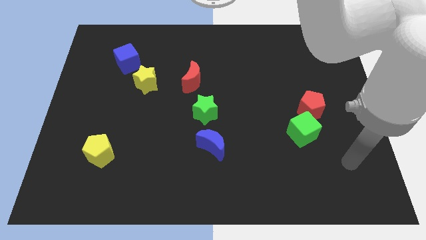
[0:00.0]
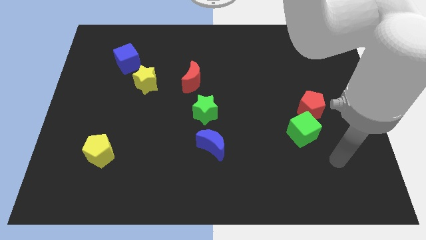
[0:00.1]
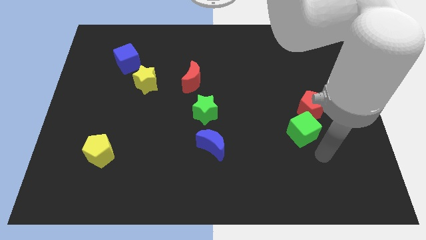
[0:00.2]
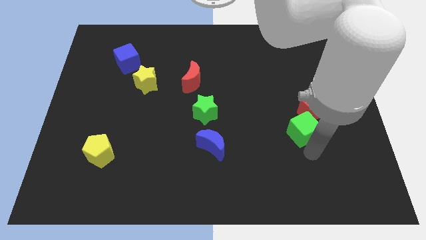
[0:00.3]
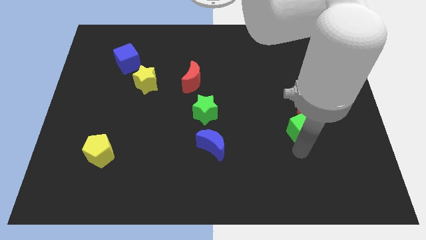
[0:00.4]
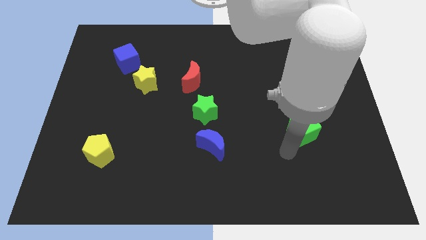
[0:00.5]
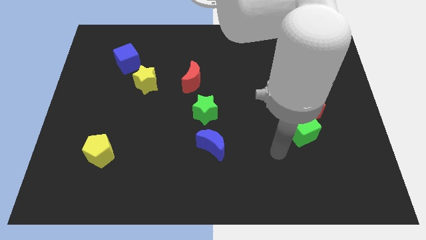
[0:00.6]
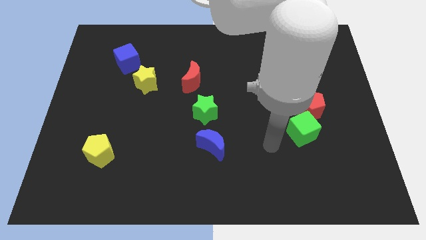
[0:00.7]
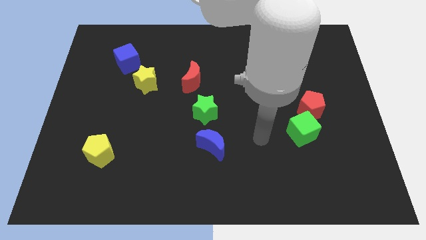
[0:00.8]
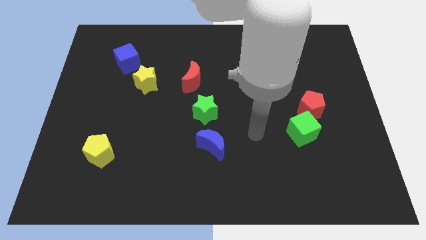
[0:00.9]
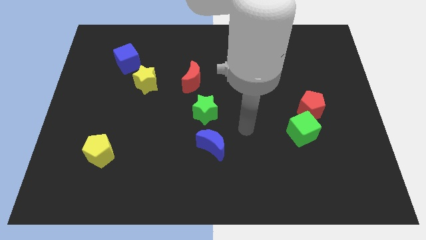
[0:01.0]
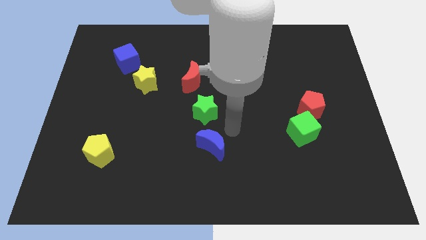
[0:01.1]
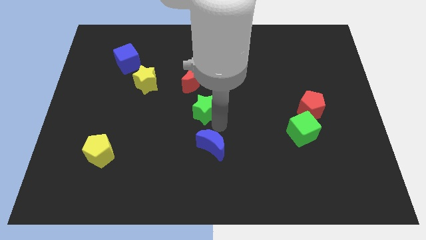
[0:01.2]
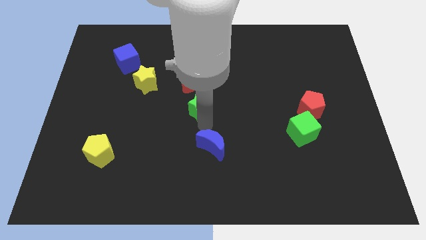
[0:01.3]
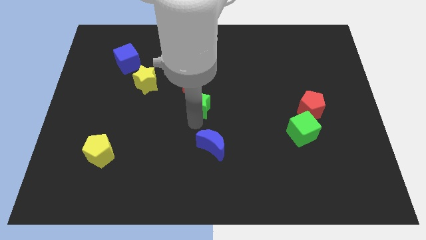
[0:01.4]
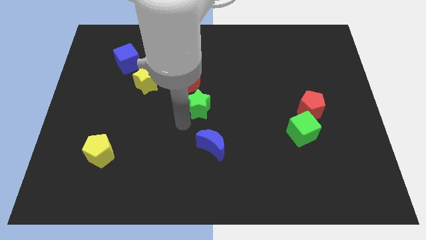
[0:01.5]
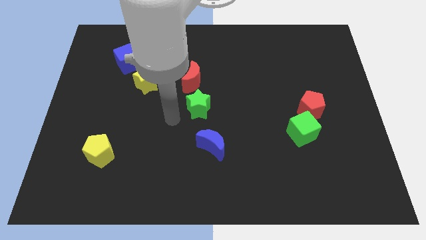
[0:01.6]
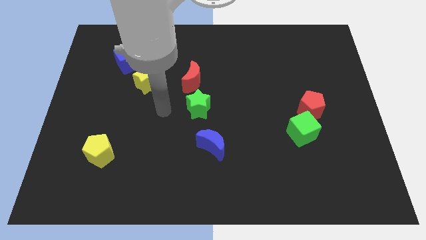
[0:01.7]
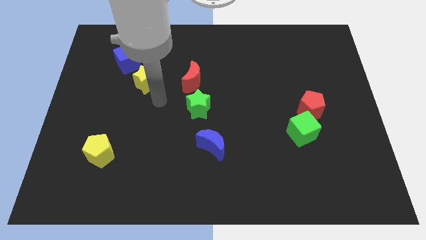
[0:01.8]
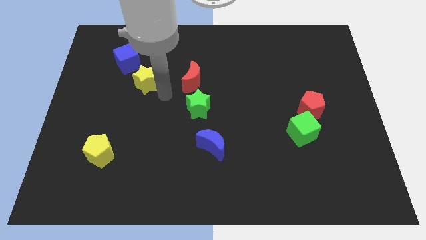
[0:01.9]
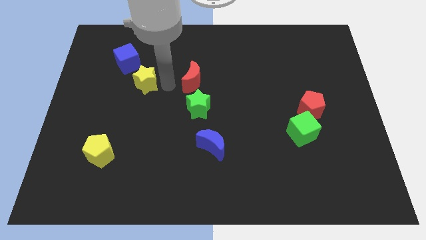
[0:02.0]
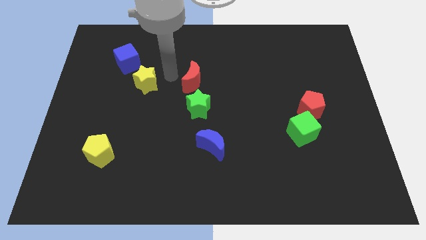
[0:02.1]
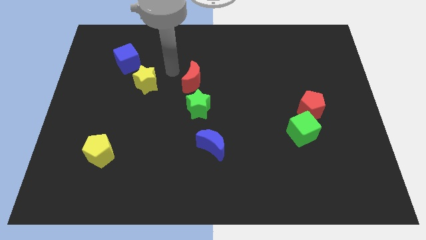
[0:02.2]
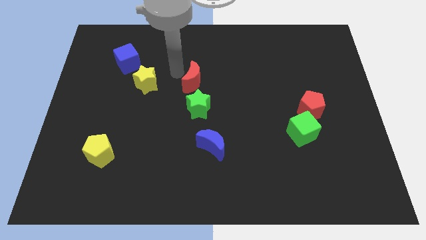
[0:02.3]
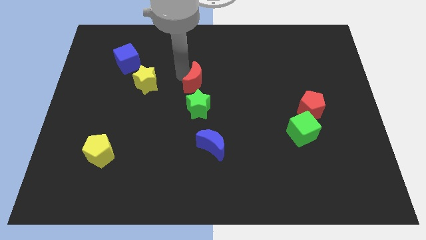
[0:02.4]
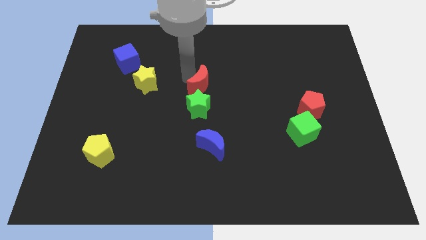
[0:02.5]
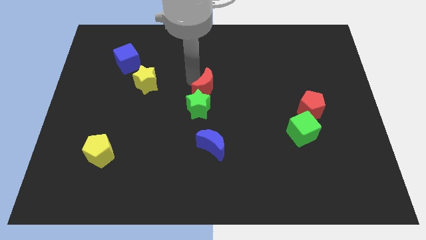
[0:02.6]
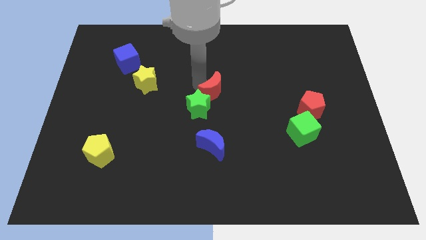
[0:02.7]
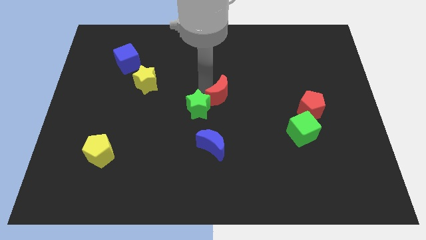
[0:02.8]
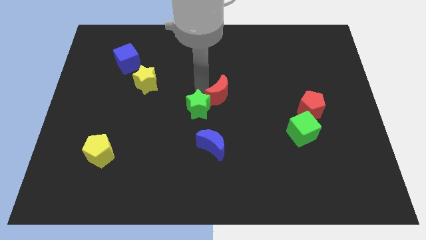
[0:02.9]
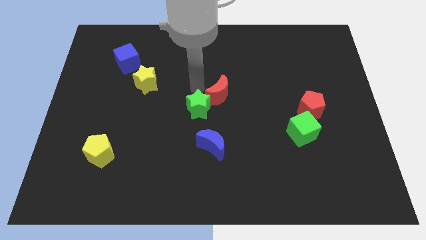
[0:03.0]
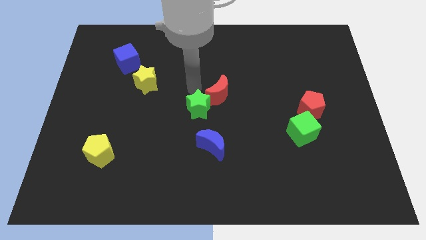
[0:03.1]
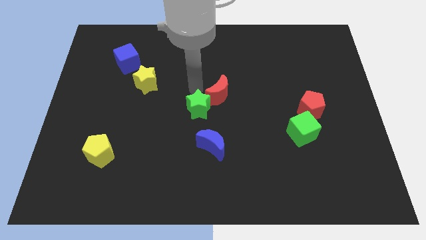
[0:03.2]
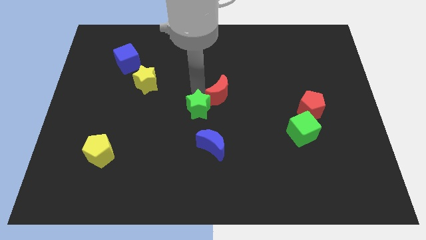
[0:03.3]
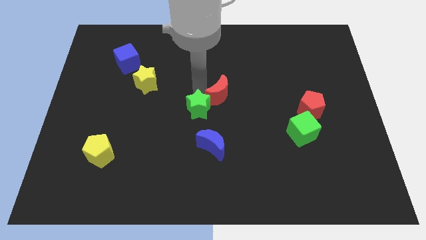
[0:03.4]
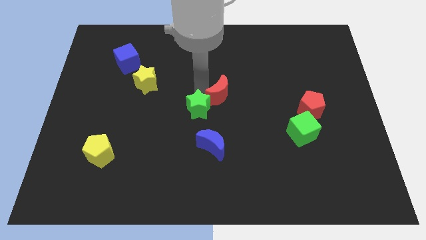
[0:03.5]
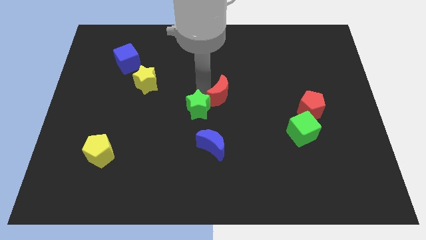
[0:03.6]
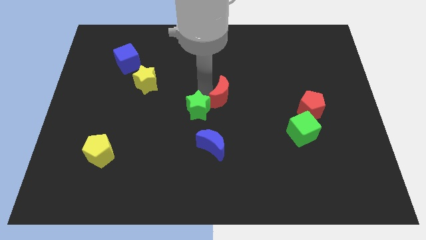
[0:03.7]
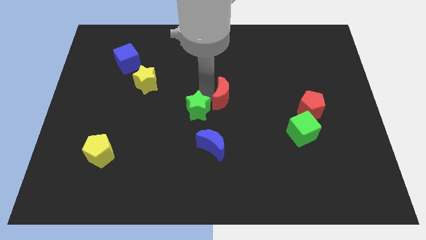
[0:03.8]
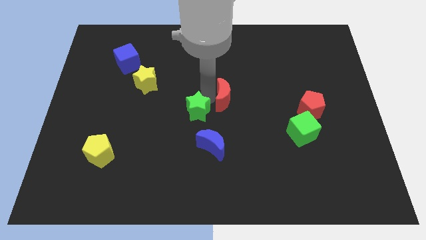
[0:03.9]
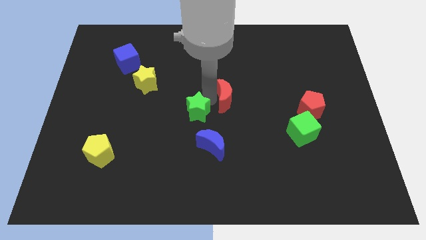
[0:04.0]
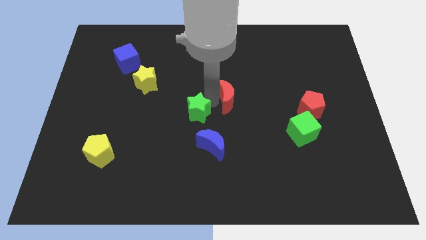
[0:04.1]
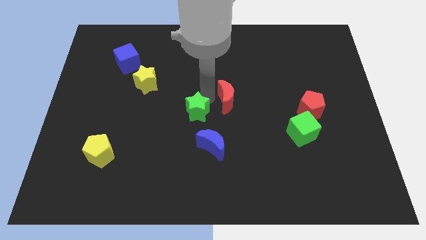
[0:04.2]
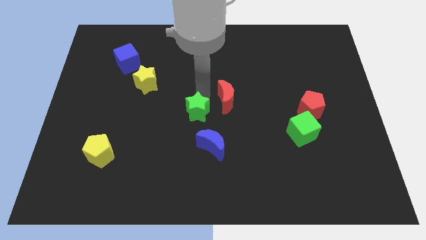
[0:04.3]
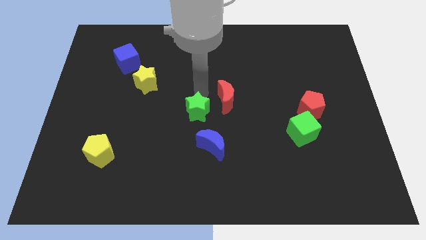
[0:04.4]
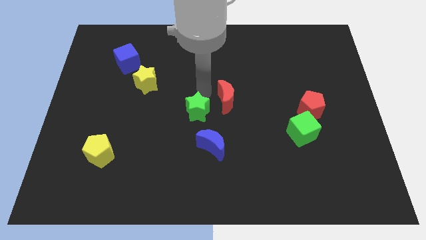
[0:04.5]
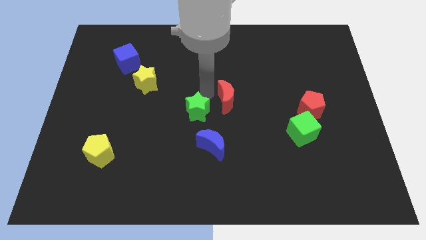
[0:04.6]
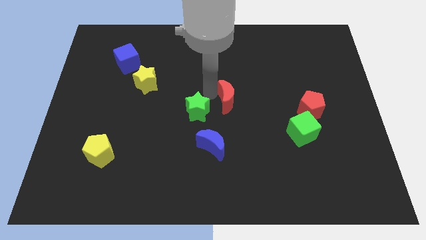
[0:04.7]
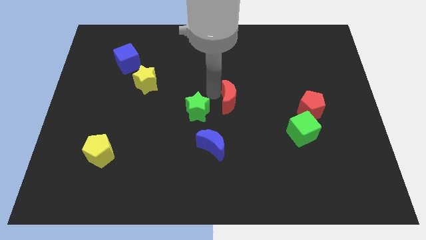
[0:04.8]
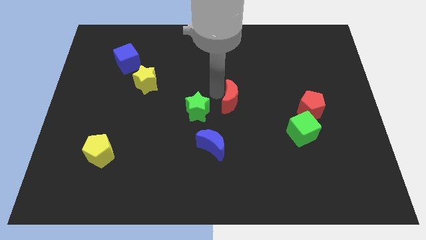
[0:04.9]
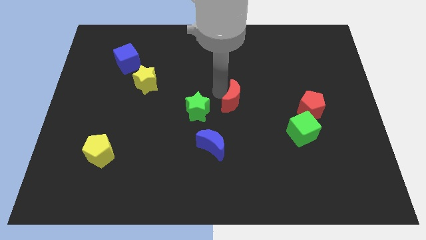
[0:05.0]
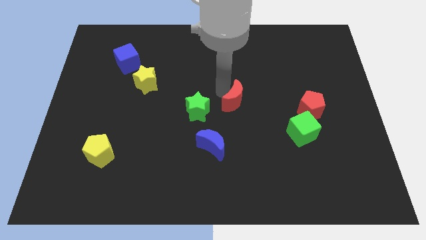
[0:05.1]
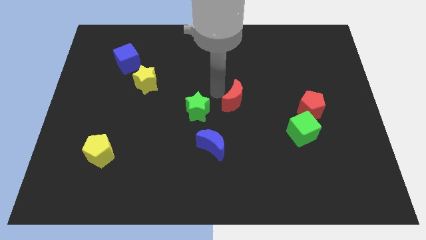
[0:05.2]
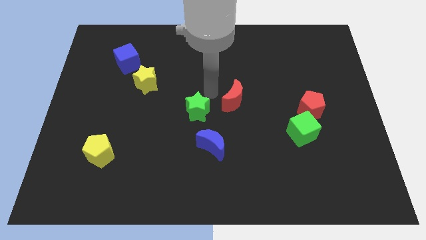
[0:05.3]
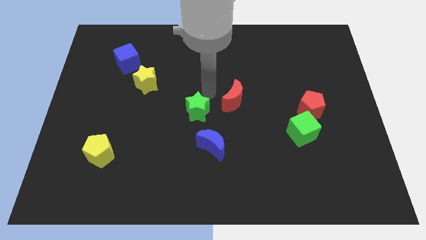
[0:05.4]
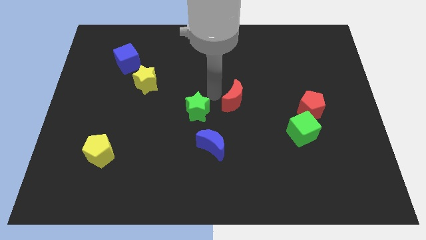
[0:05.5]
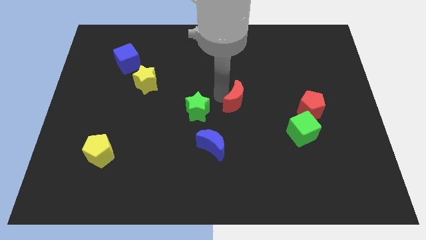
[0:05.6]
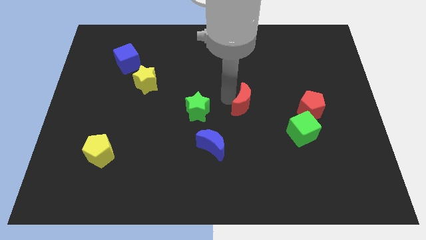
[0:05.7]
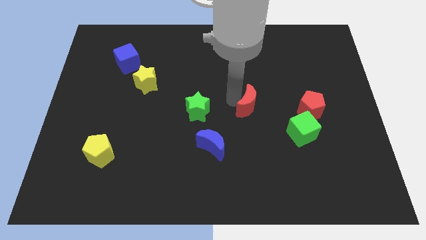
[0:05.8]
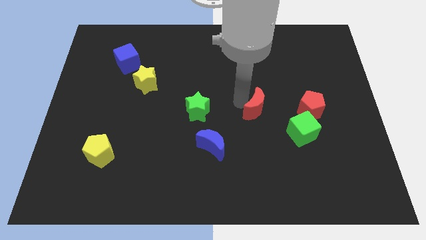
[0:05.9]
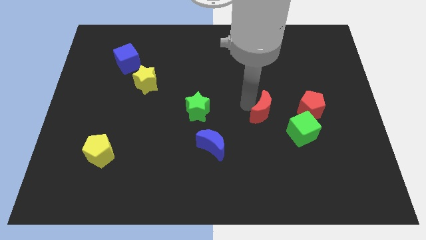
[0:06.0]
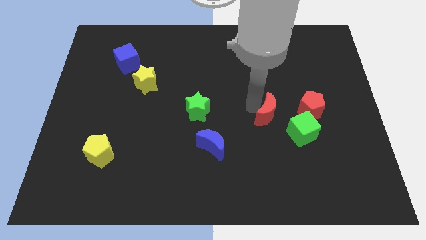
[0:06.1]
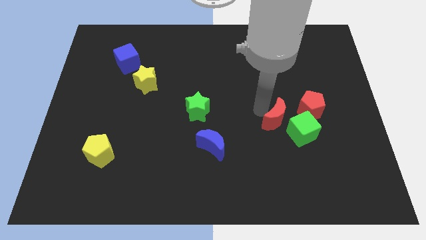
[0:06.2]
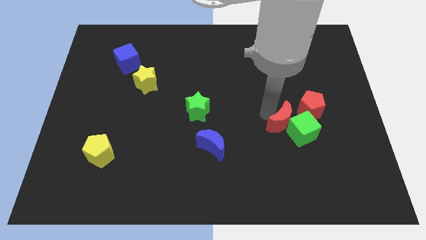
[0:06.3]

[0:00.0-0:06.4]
put the red moon towards the green cube
